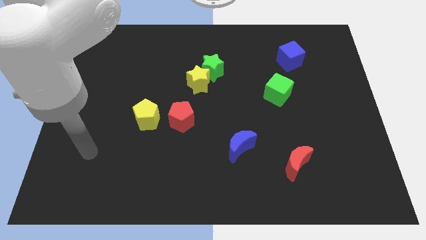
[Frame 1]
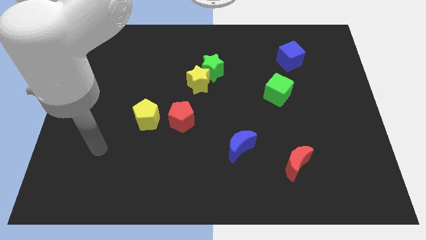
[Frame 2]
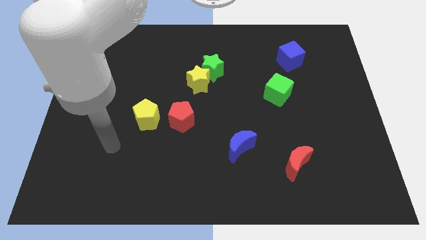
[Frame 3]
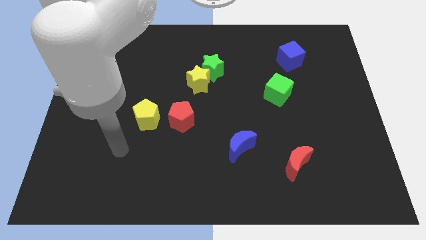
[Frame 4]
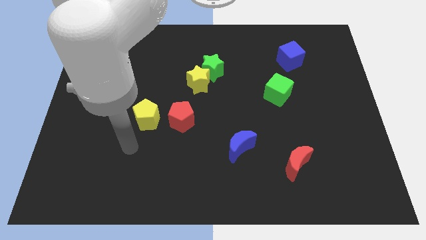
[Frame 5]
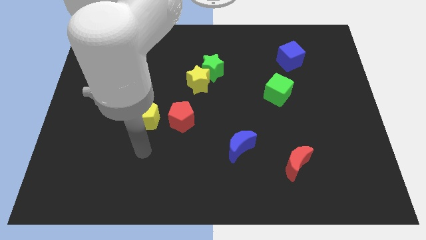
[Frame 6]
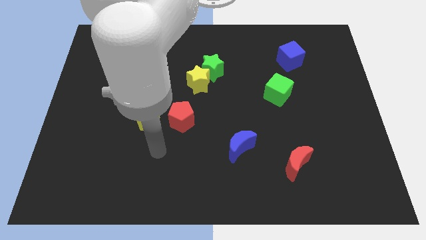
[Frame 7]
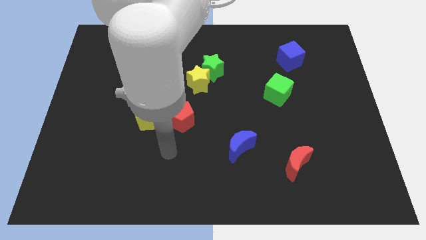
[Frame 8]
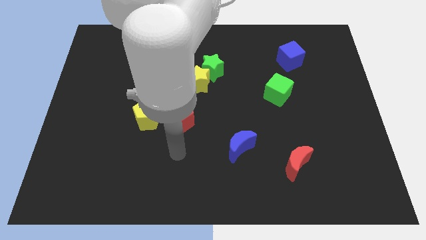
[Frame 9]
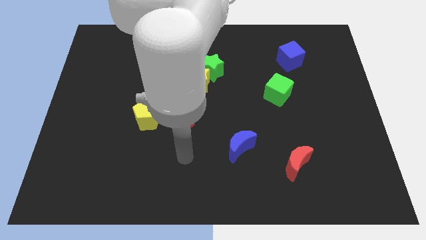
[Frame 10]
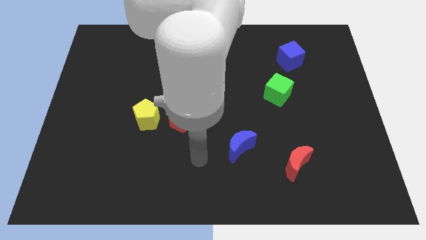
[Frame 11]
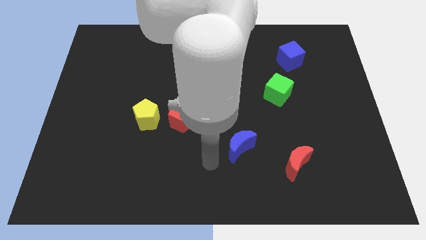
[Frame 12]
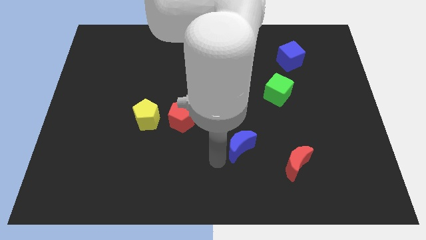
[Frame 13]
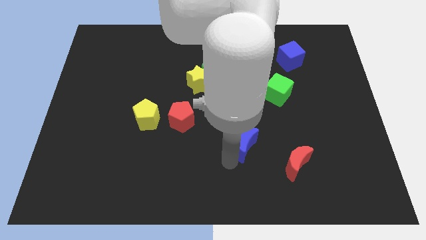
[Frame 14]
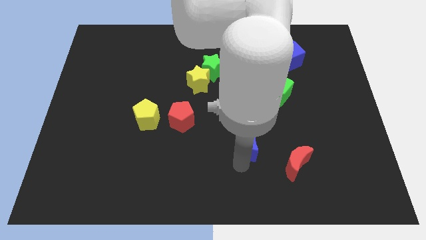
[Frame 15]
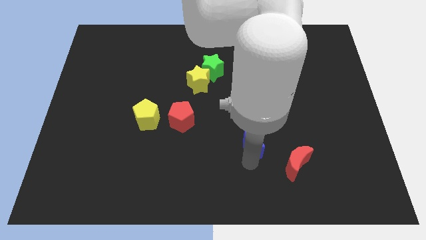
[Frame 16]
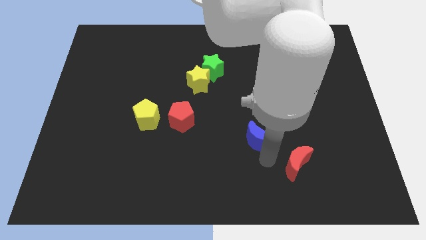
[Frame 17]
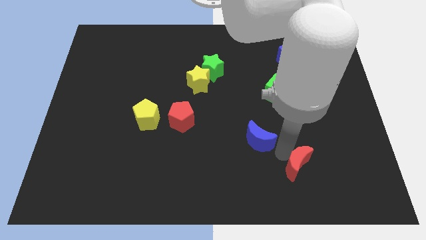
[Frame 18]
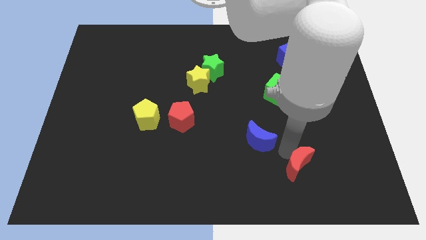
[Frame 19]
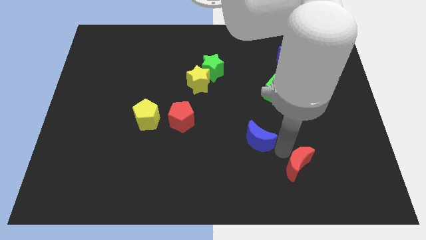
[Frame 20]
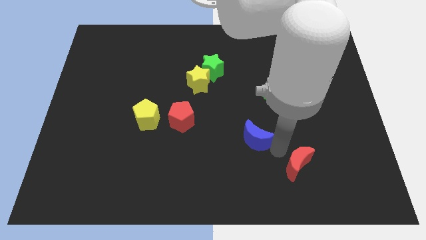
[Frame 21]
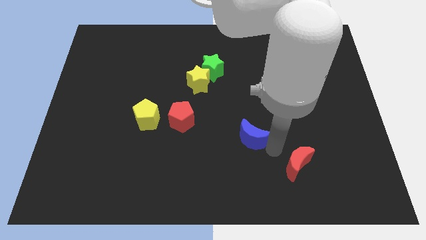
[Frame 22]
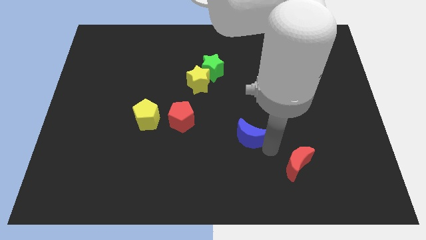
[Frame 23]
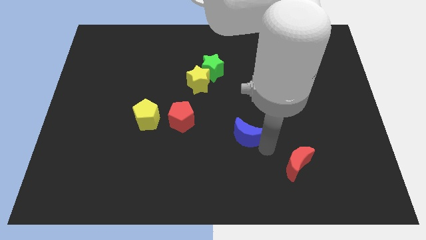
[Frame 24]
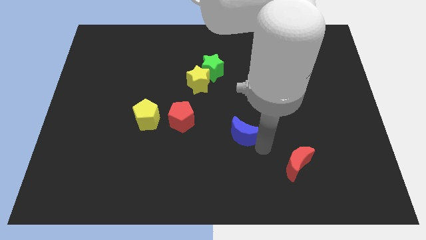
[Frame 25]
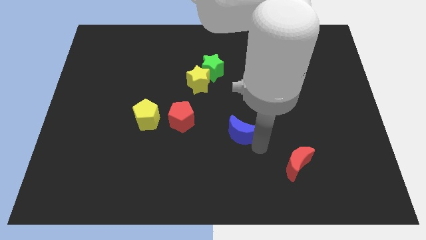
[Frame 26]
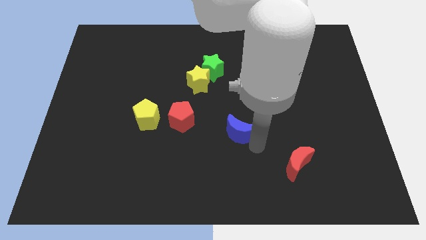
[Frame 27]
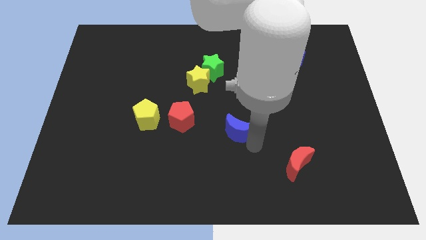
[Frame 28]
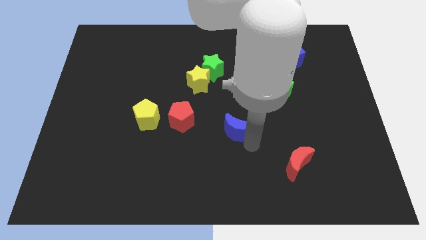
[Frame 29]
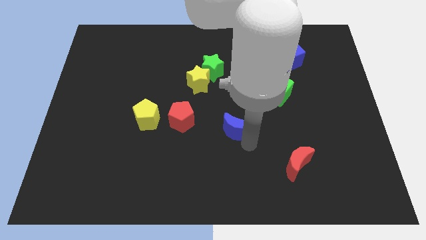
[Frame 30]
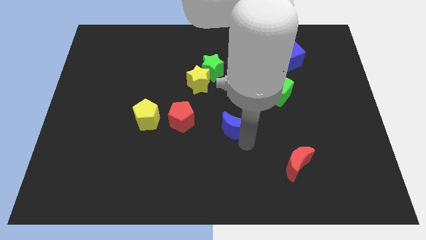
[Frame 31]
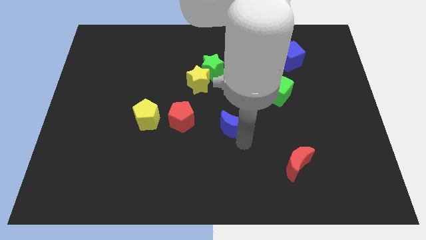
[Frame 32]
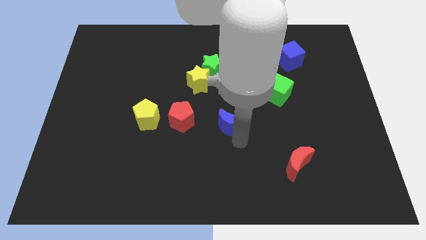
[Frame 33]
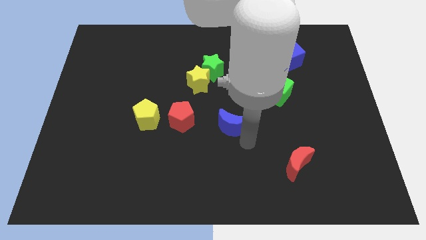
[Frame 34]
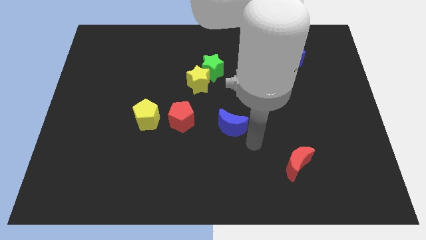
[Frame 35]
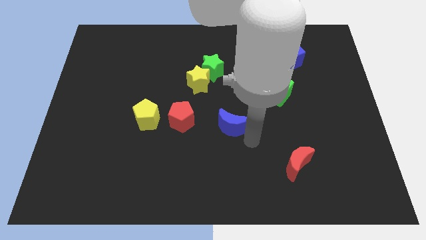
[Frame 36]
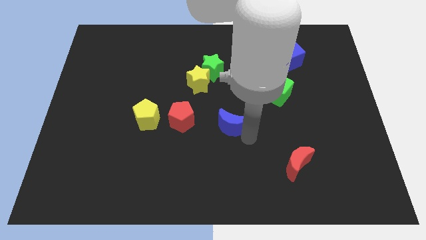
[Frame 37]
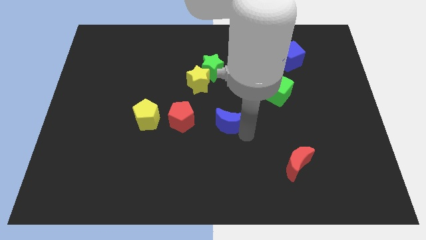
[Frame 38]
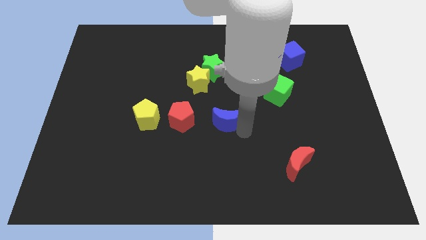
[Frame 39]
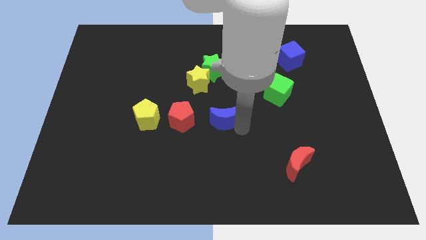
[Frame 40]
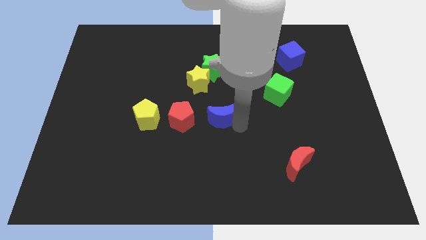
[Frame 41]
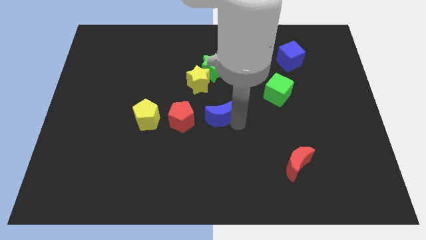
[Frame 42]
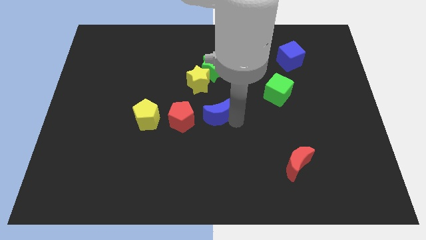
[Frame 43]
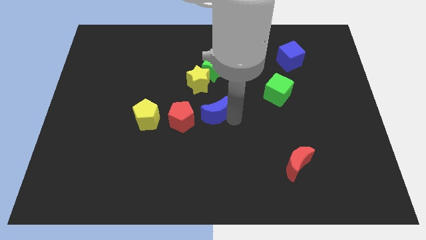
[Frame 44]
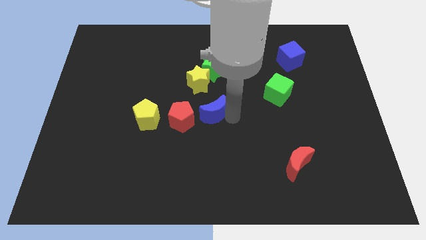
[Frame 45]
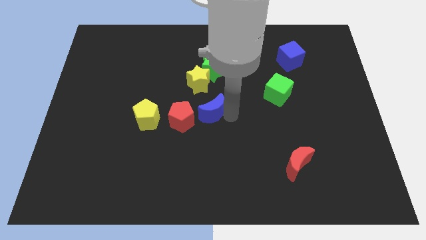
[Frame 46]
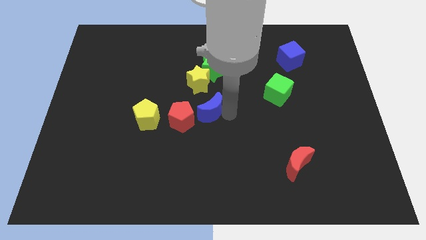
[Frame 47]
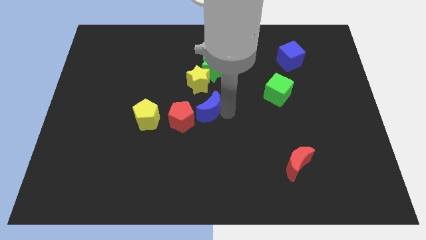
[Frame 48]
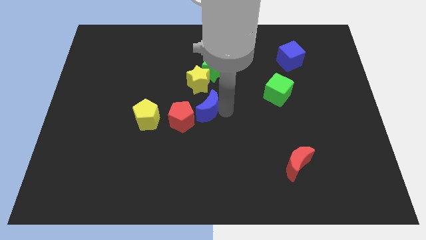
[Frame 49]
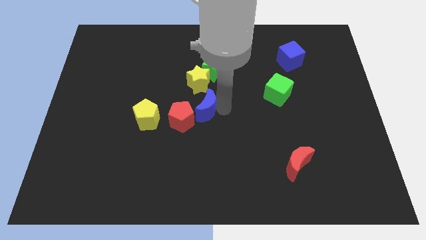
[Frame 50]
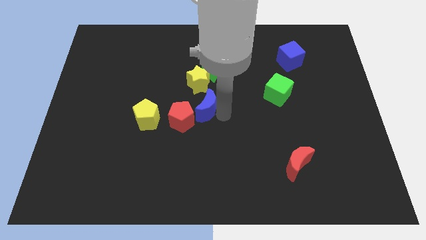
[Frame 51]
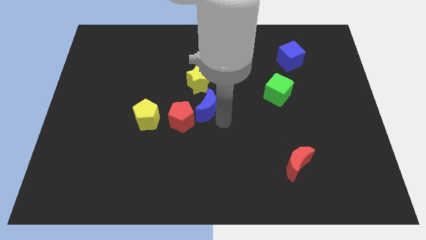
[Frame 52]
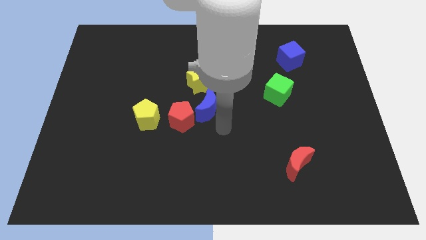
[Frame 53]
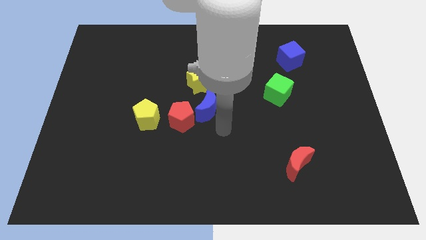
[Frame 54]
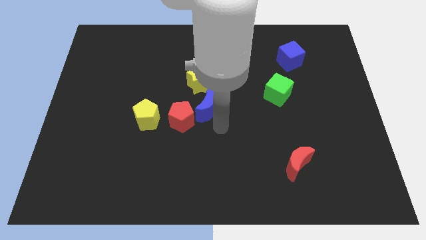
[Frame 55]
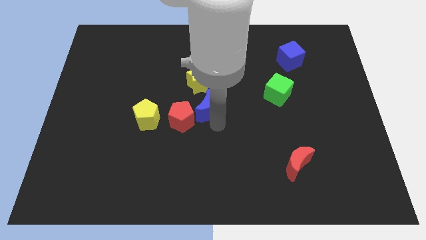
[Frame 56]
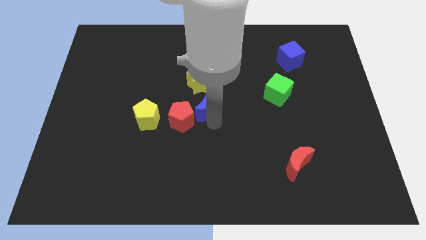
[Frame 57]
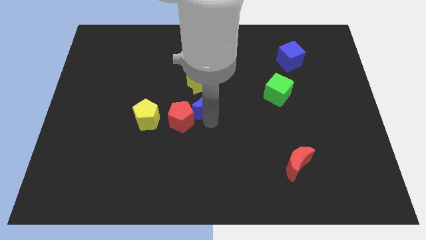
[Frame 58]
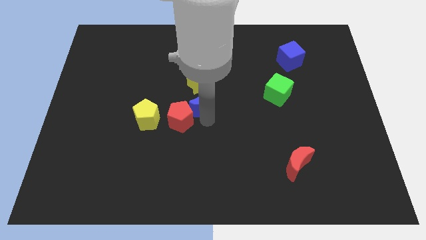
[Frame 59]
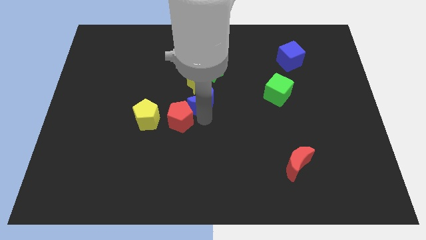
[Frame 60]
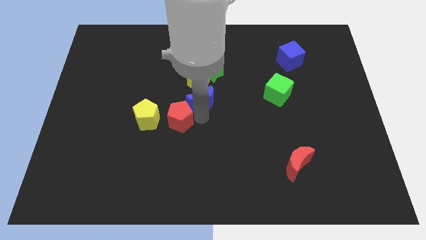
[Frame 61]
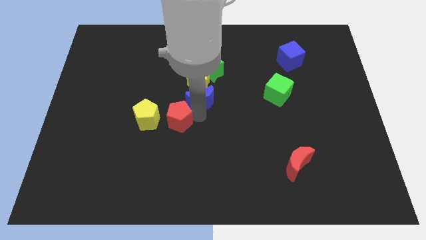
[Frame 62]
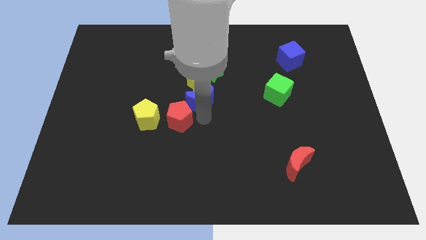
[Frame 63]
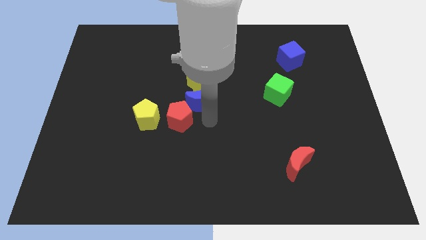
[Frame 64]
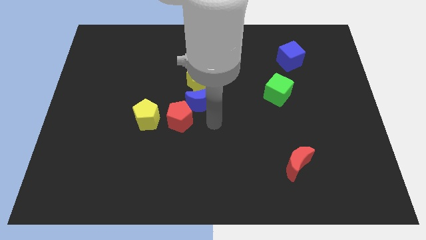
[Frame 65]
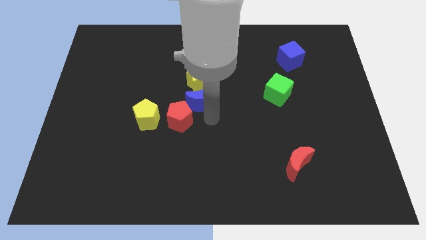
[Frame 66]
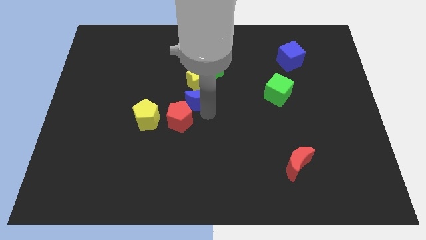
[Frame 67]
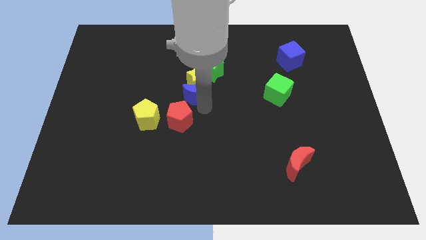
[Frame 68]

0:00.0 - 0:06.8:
move the blue moon to the bottom left side of the green star

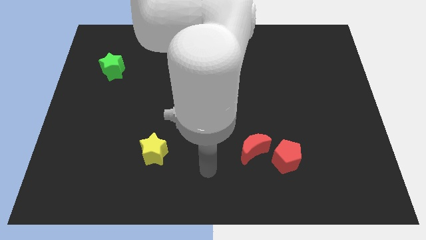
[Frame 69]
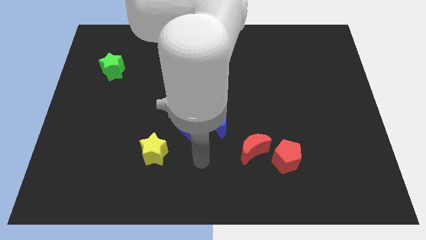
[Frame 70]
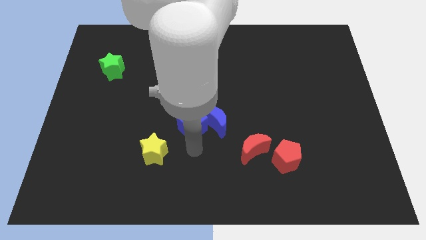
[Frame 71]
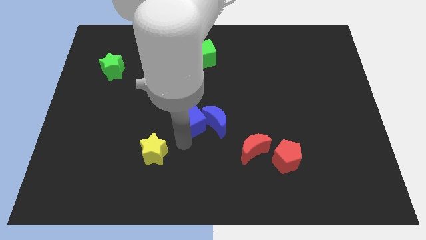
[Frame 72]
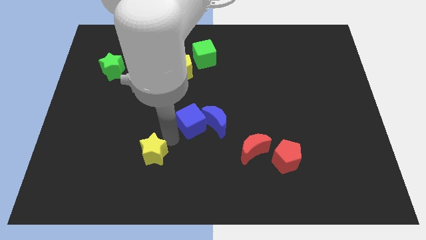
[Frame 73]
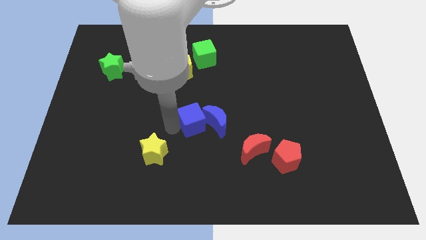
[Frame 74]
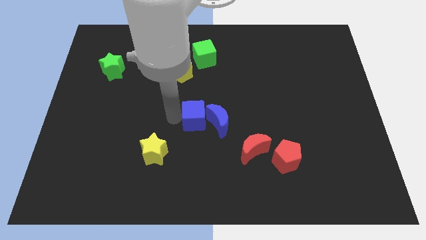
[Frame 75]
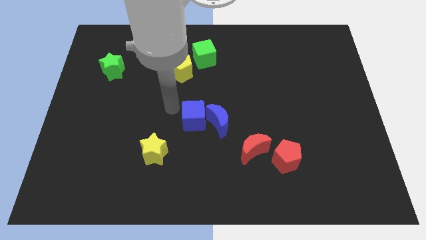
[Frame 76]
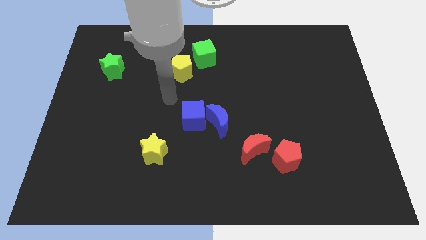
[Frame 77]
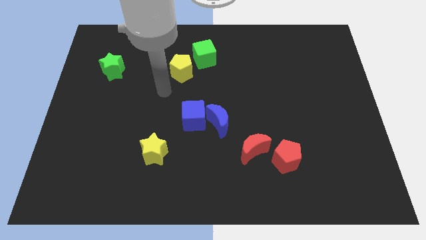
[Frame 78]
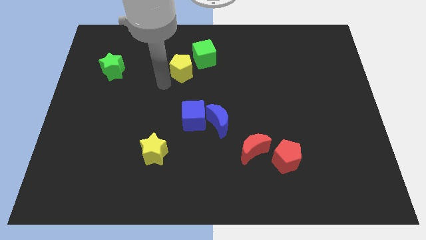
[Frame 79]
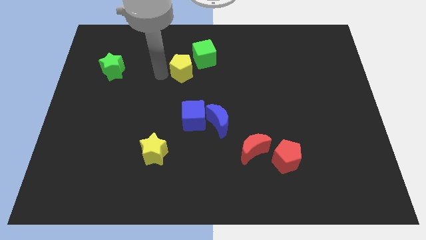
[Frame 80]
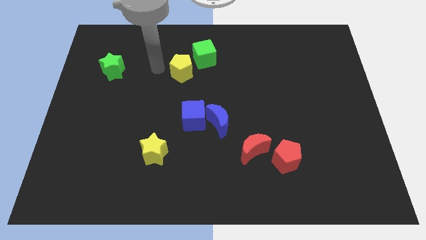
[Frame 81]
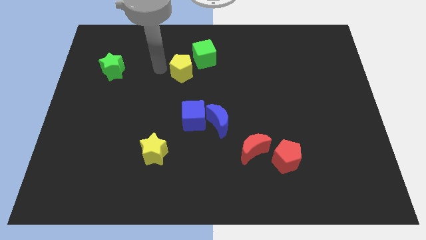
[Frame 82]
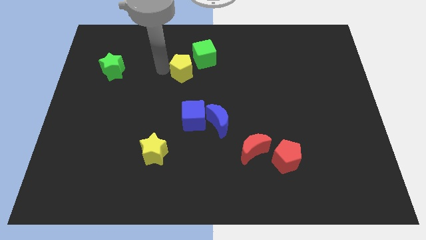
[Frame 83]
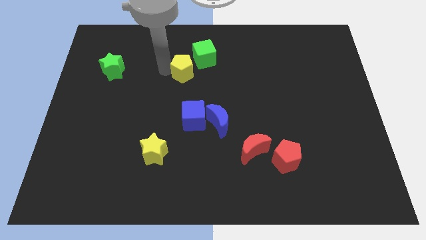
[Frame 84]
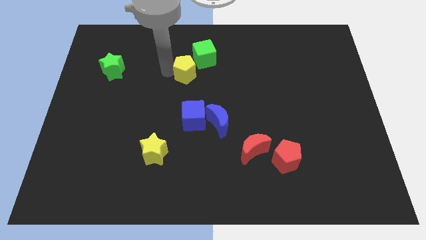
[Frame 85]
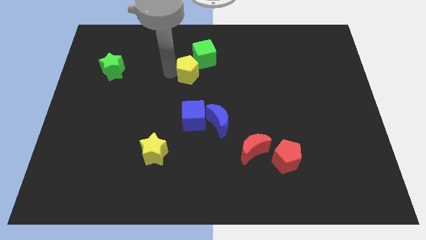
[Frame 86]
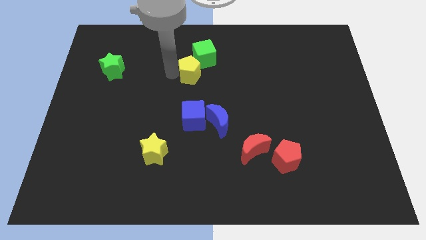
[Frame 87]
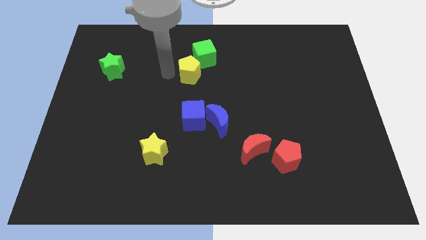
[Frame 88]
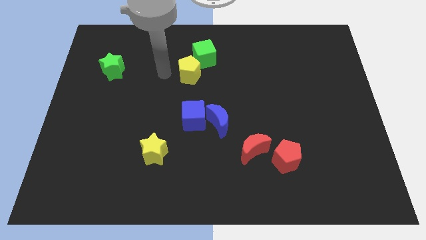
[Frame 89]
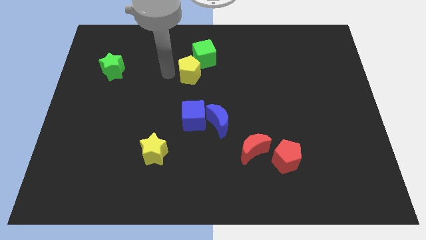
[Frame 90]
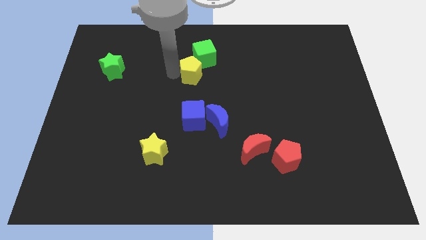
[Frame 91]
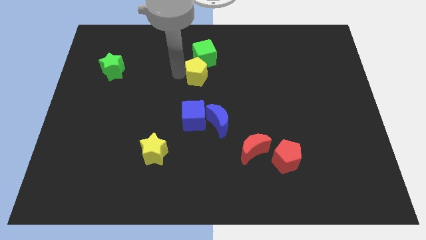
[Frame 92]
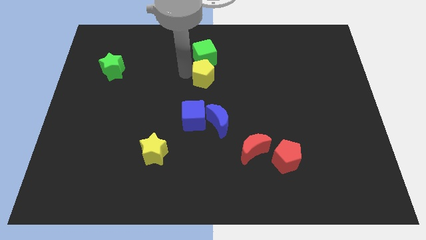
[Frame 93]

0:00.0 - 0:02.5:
push the yellow pentagon above the blue moon
